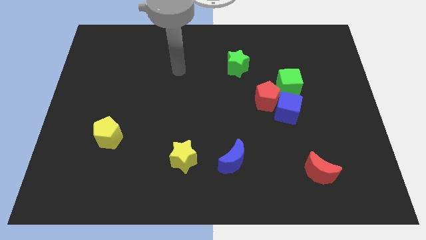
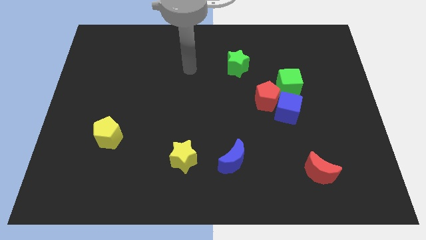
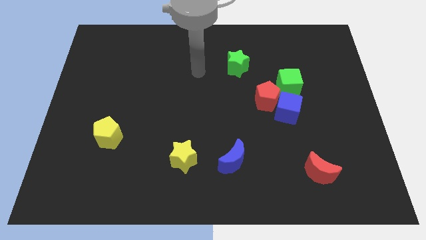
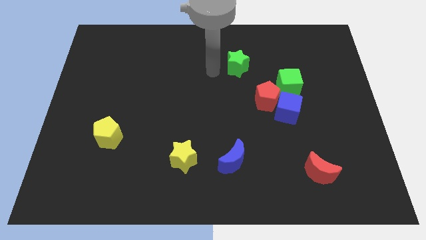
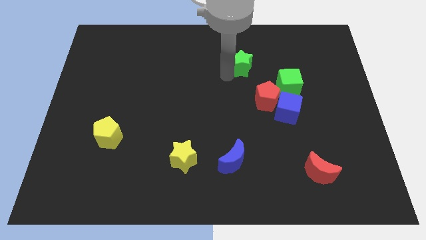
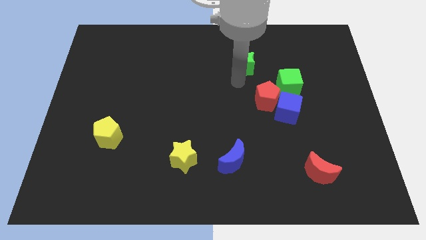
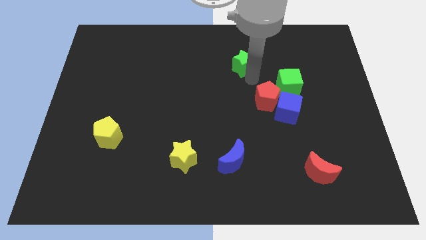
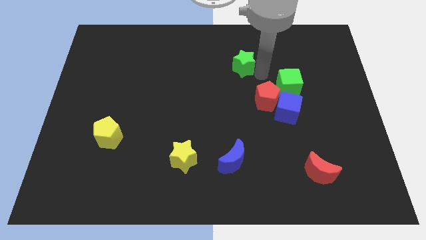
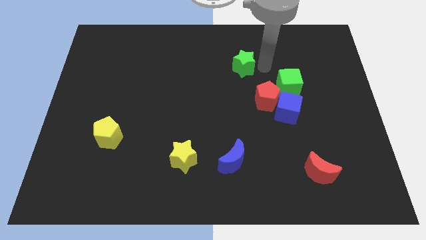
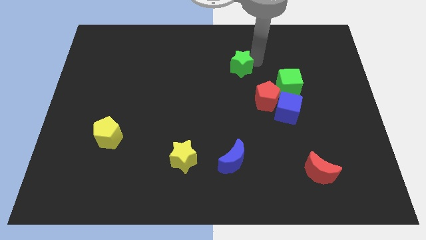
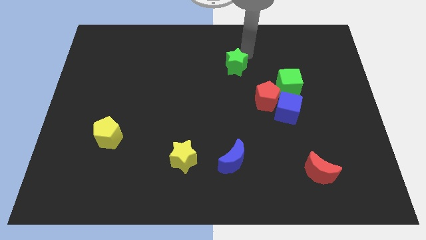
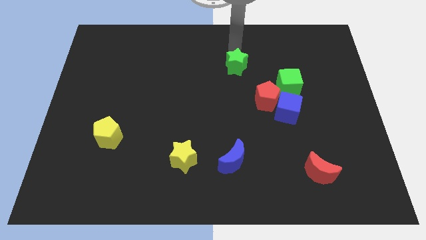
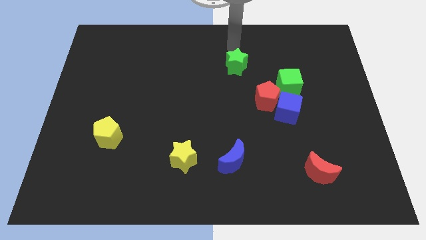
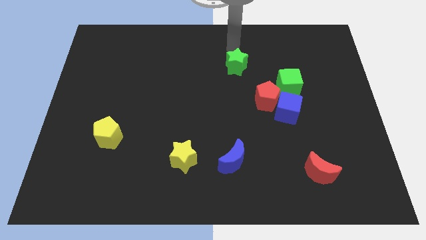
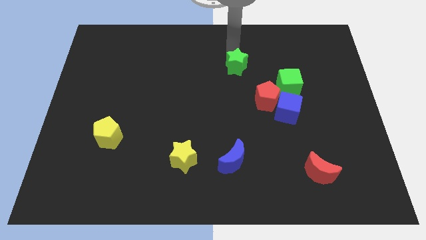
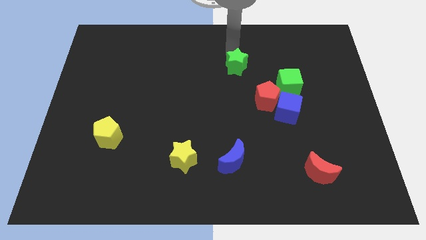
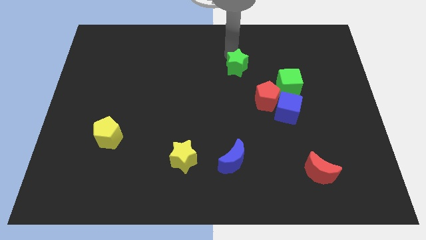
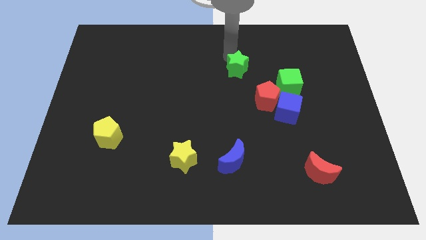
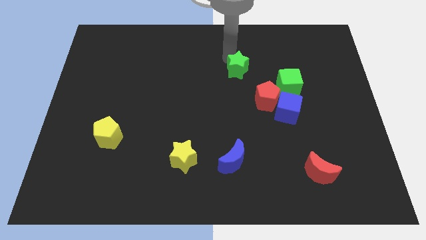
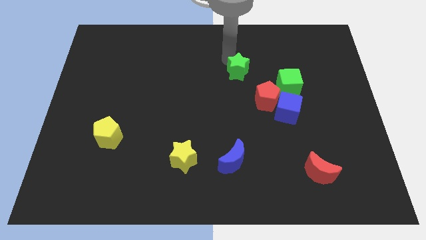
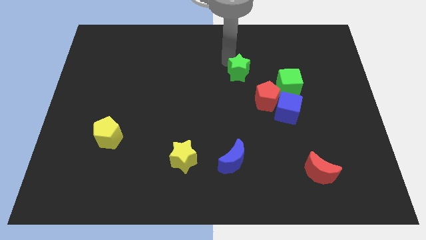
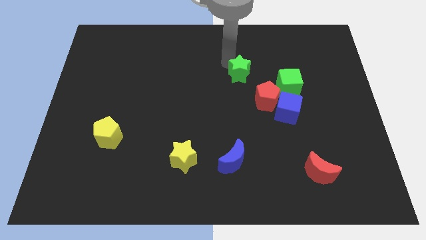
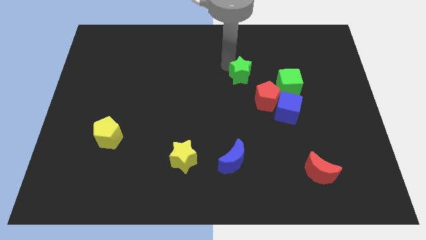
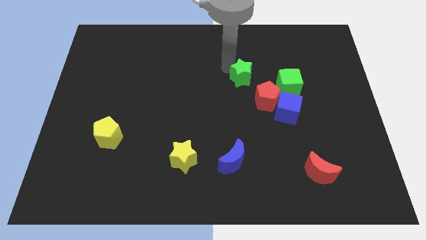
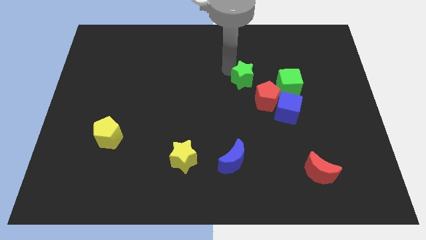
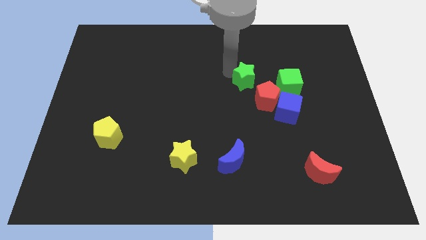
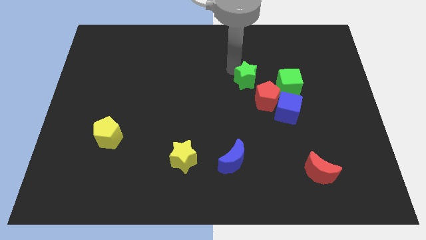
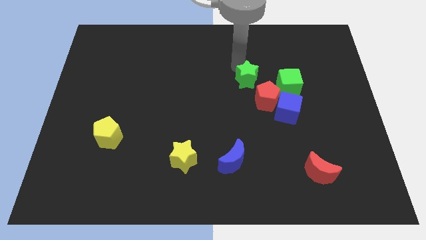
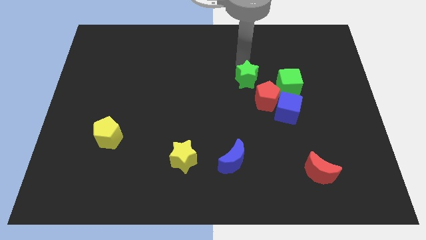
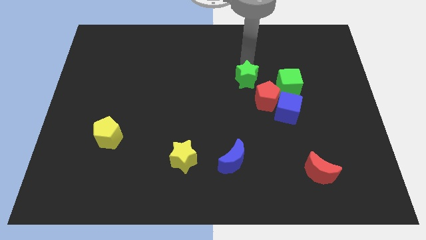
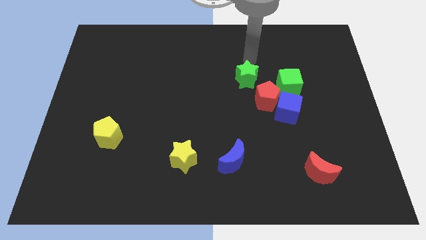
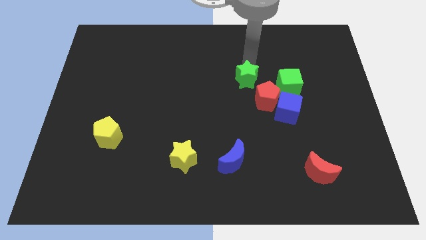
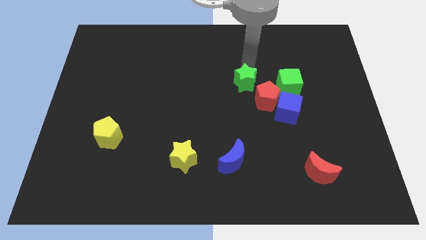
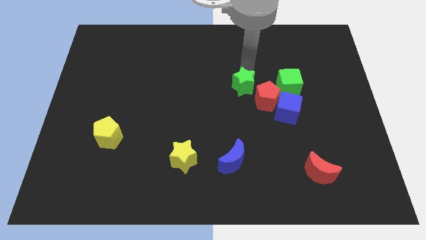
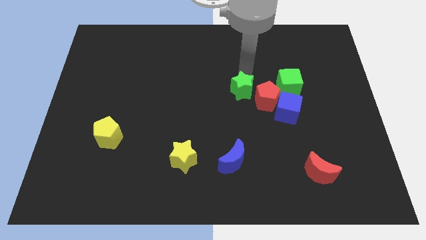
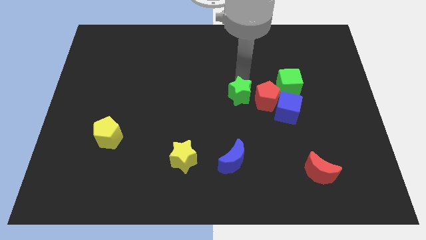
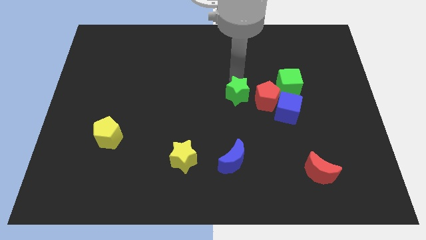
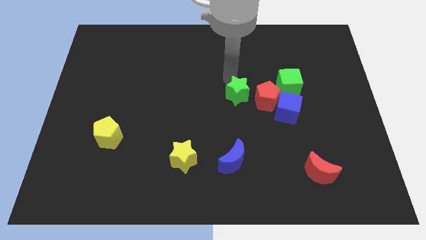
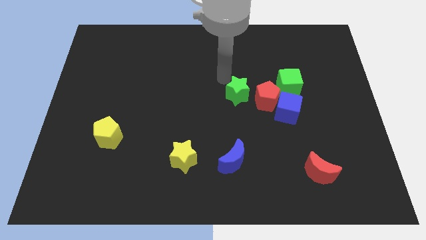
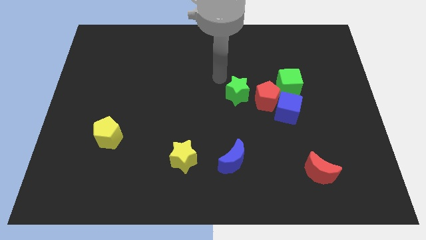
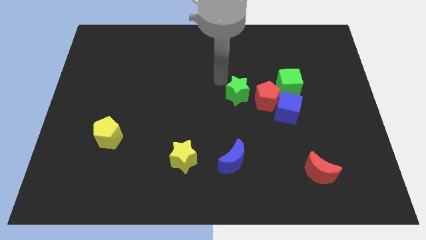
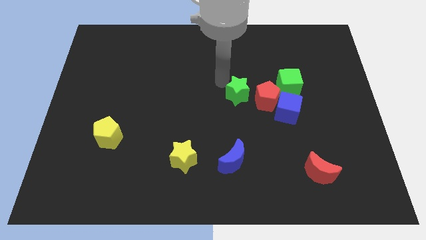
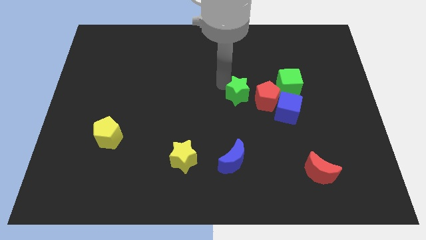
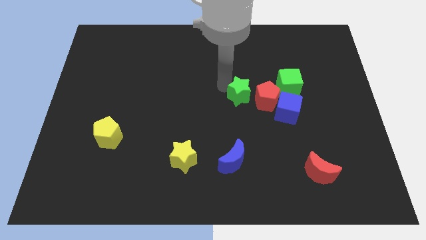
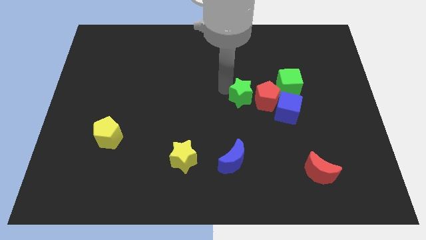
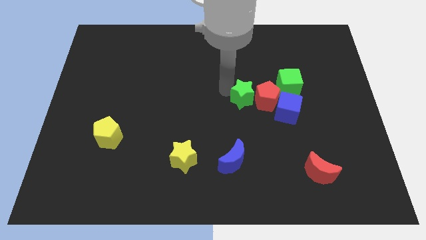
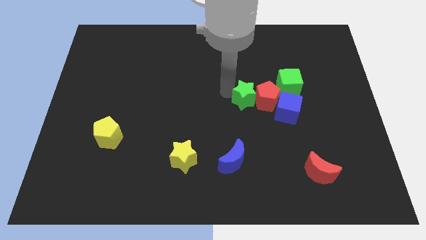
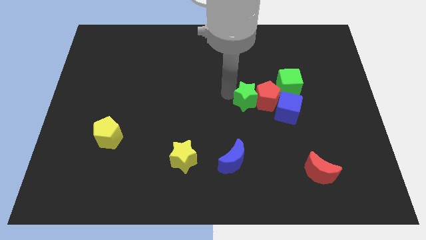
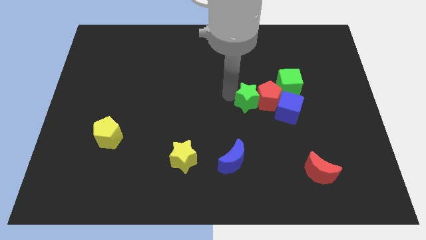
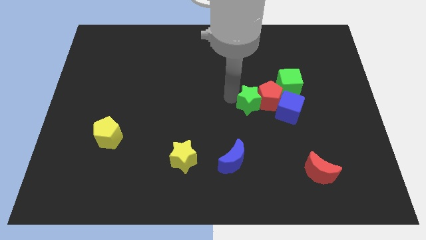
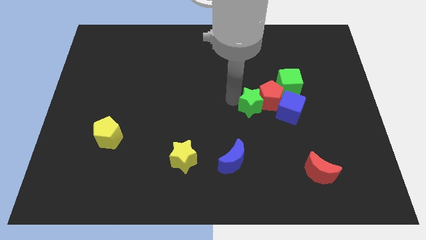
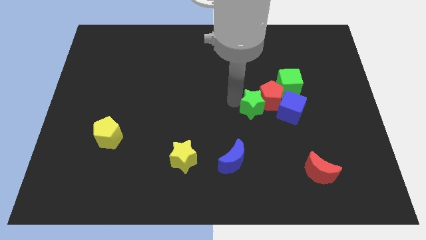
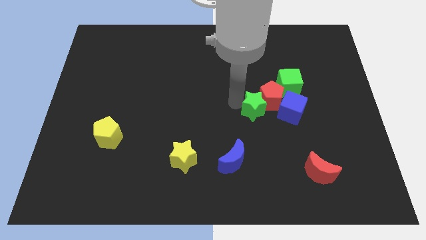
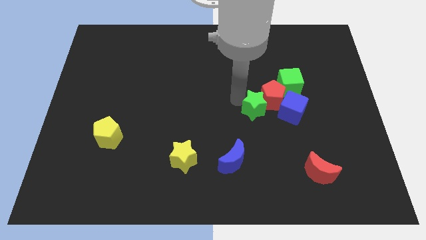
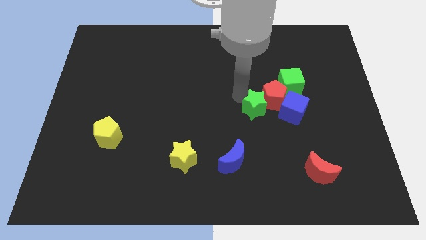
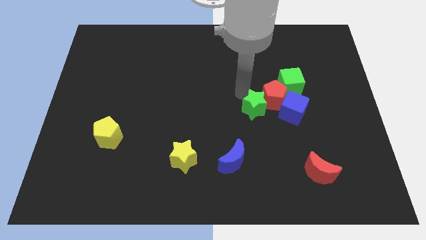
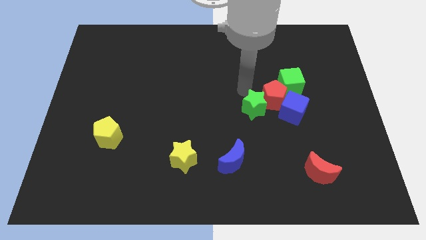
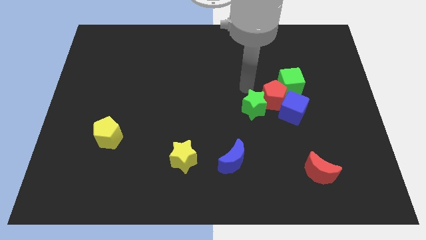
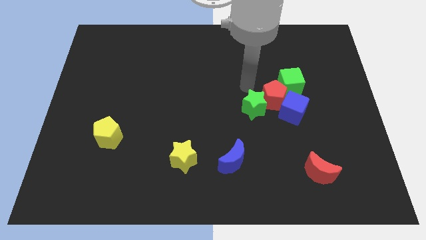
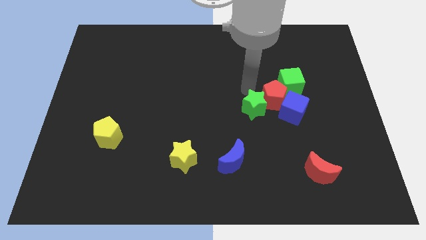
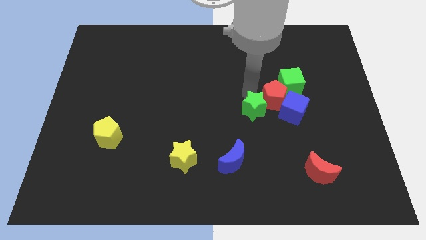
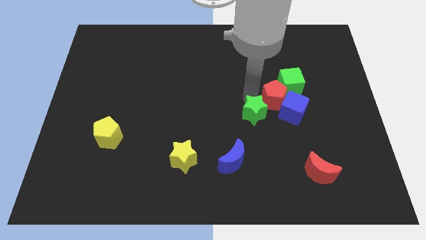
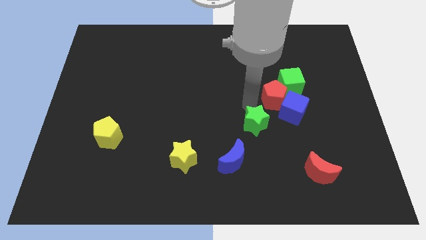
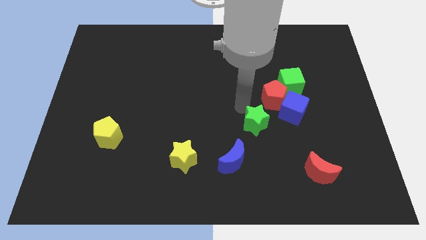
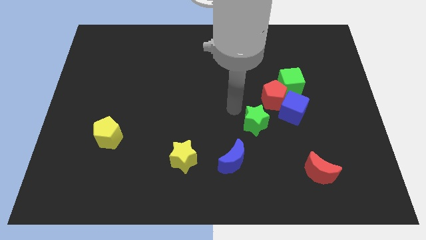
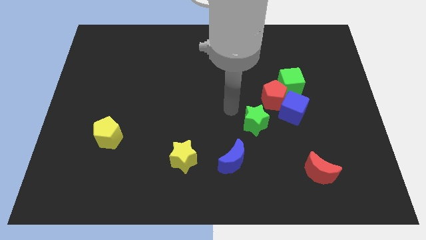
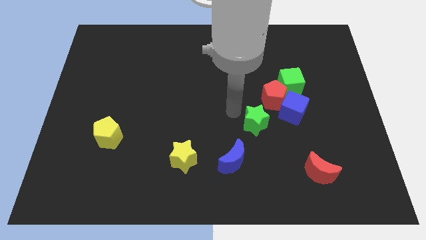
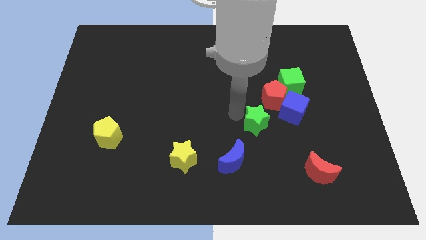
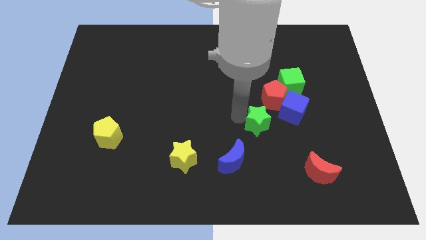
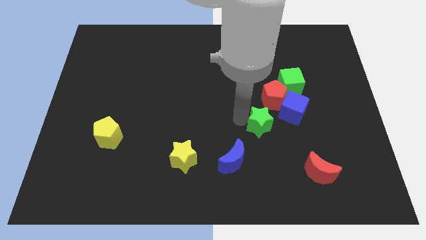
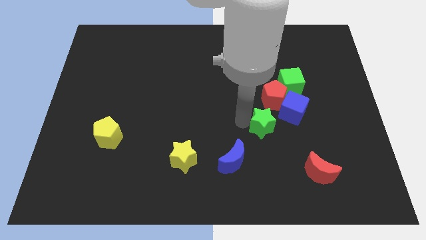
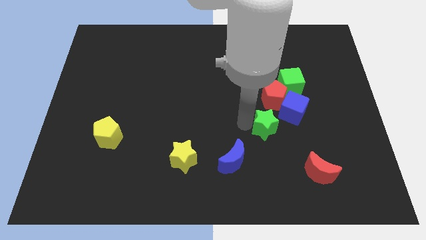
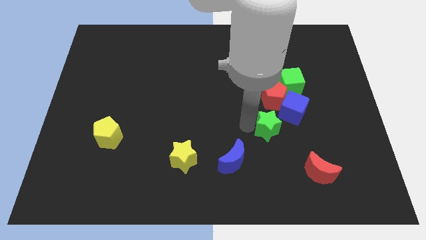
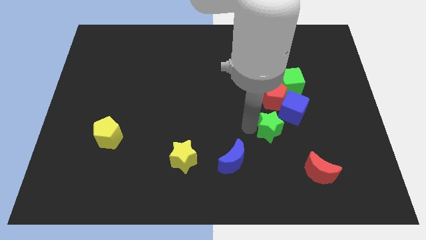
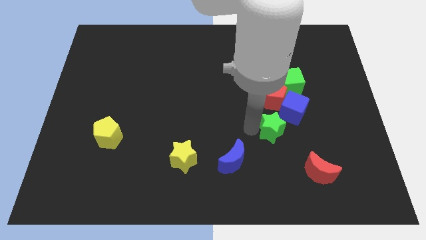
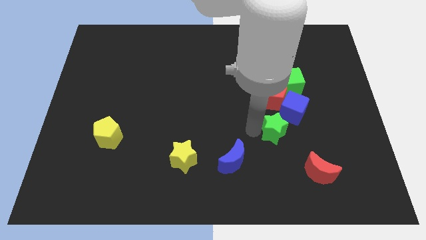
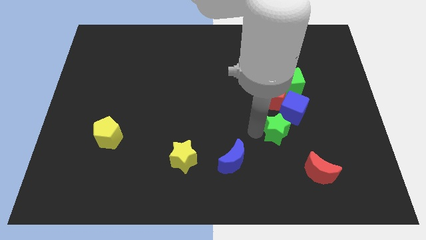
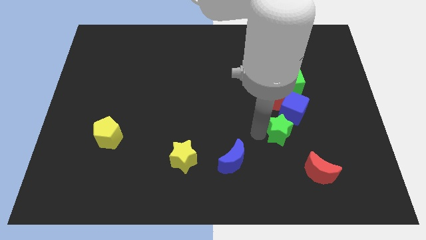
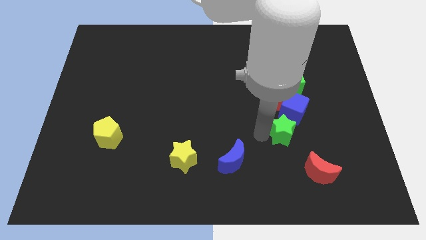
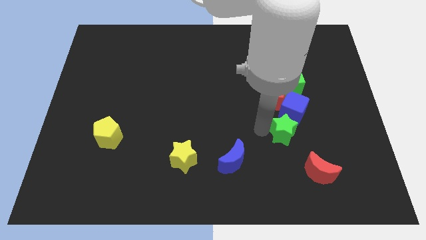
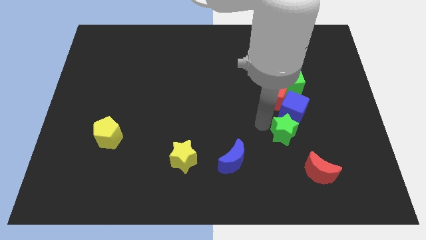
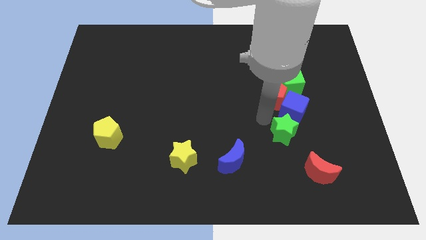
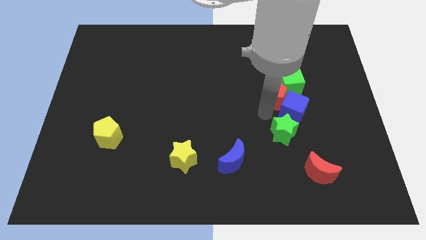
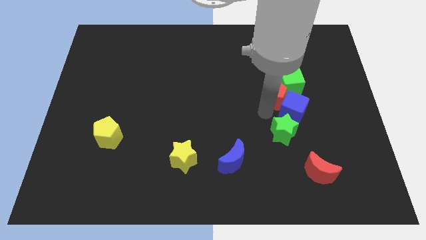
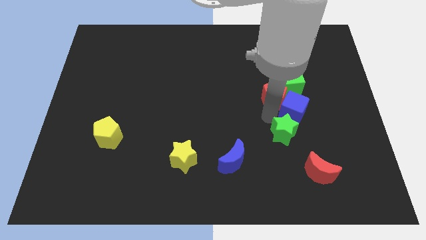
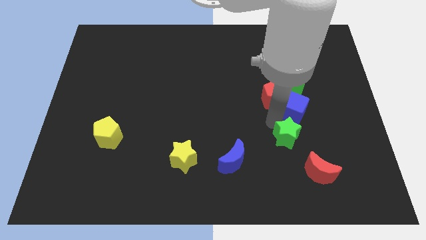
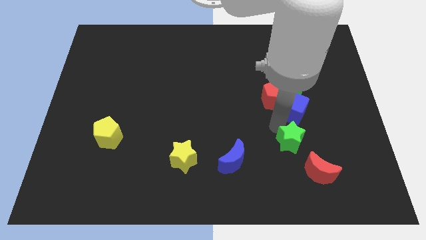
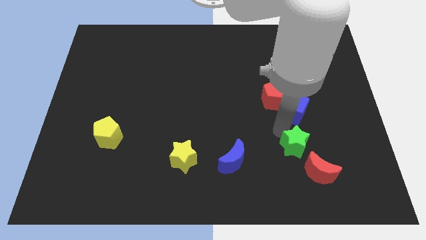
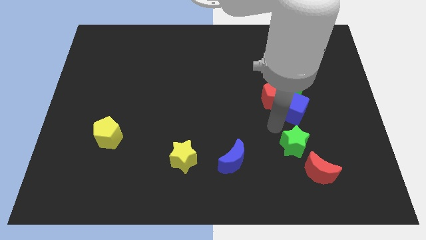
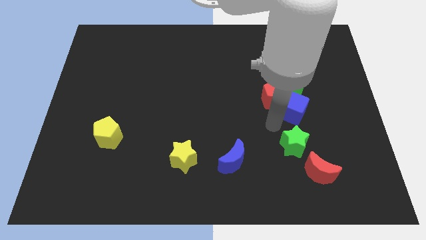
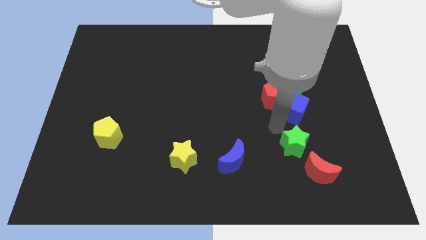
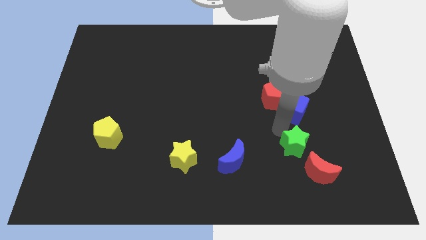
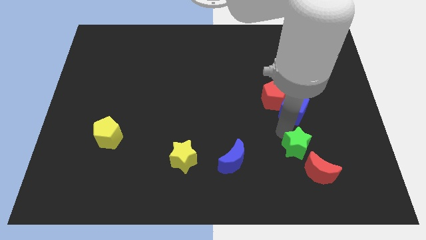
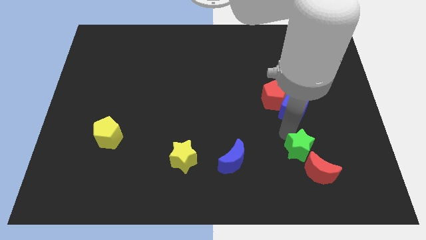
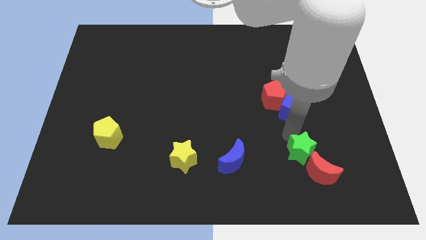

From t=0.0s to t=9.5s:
move the green star close to the red moon
